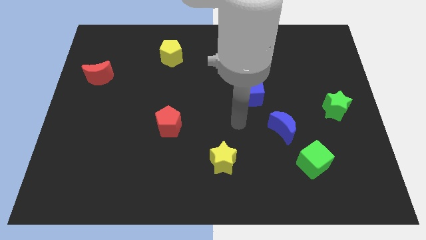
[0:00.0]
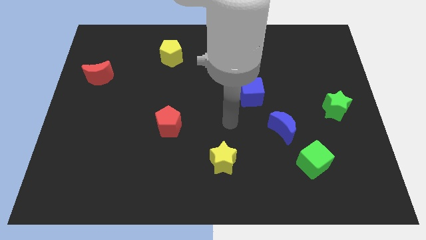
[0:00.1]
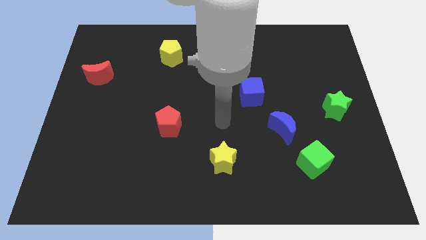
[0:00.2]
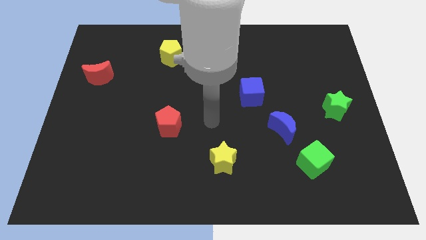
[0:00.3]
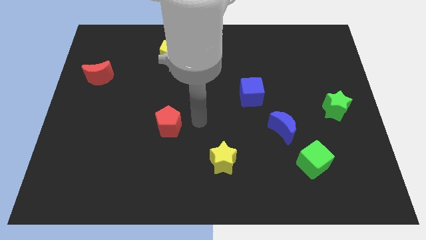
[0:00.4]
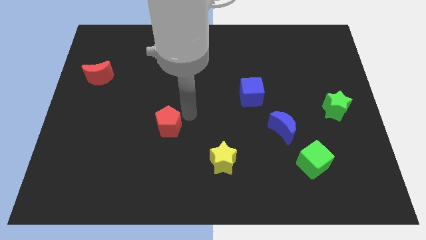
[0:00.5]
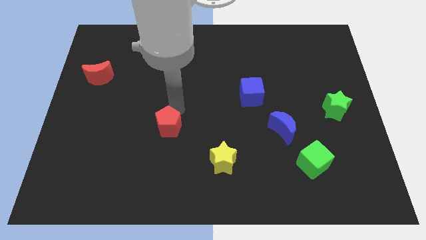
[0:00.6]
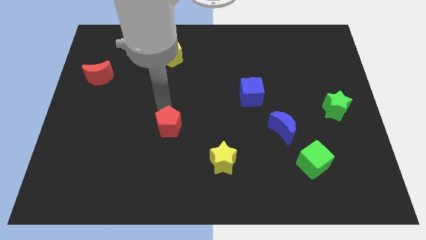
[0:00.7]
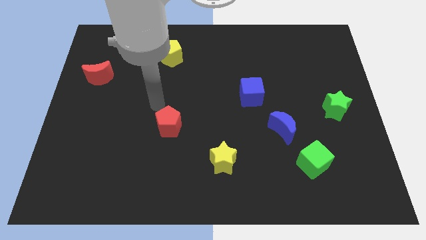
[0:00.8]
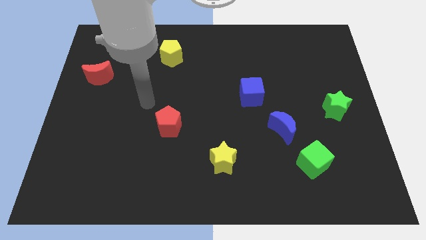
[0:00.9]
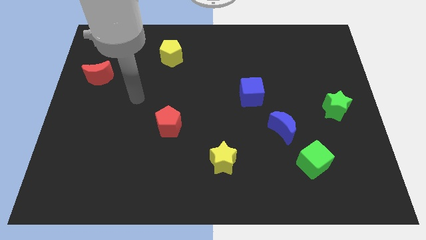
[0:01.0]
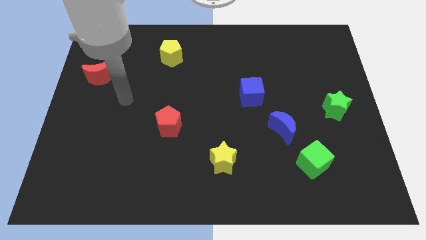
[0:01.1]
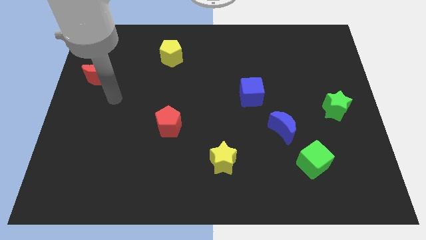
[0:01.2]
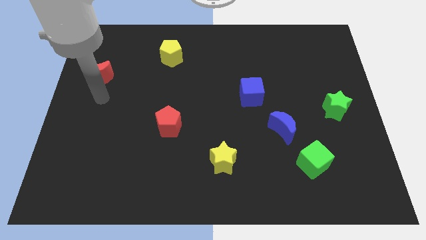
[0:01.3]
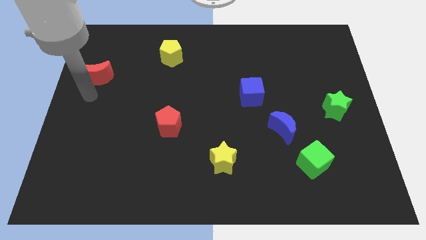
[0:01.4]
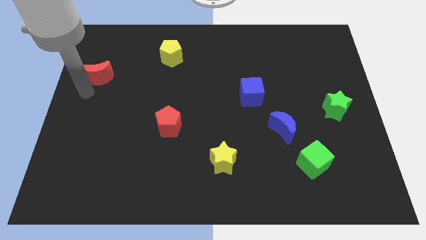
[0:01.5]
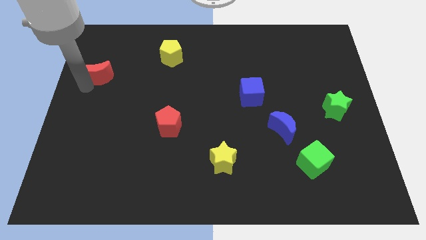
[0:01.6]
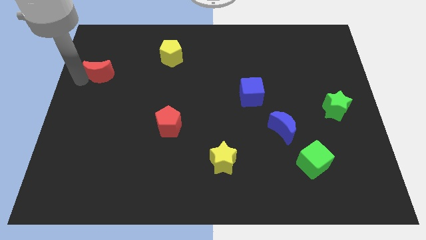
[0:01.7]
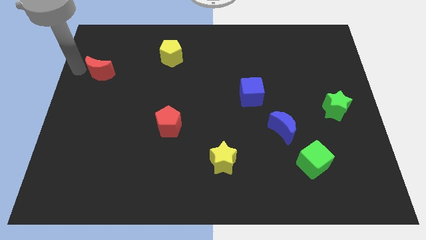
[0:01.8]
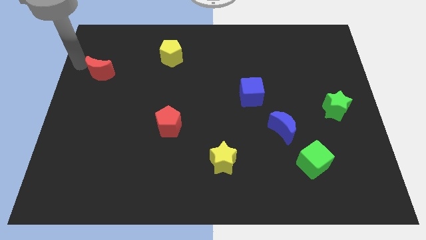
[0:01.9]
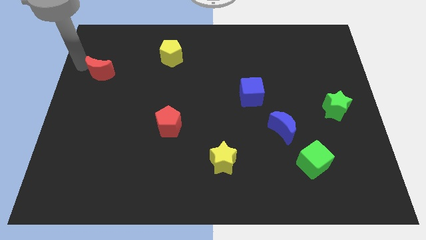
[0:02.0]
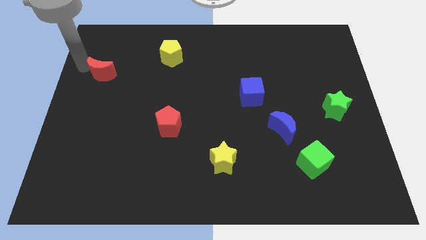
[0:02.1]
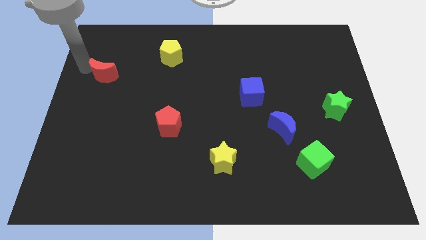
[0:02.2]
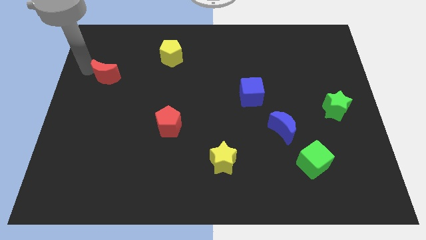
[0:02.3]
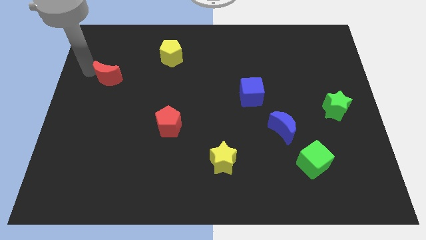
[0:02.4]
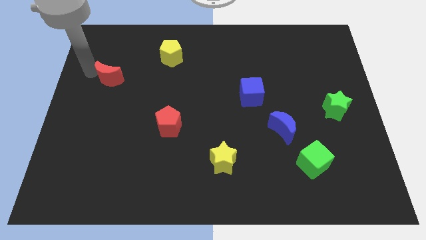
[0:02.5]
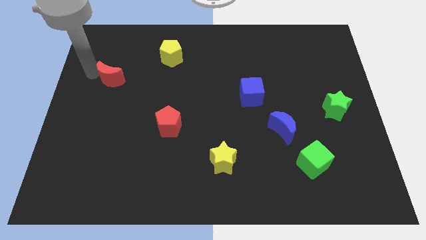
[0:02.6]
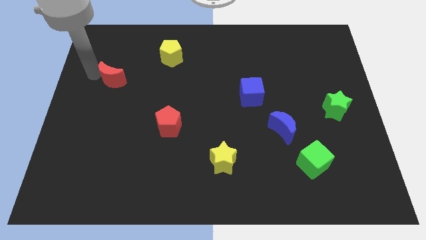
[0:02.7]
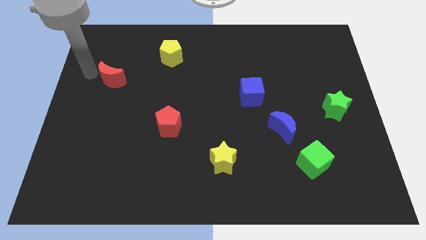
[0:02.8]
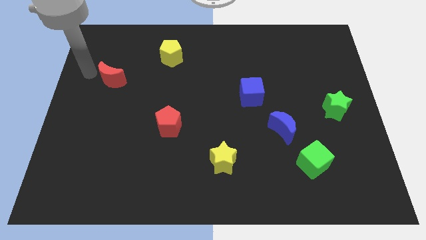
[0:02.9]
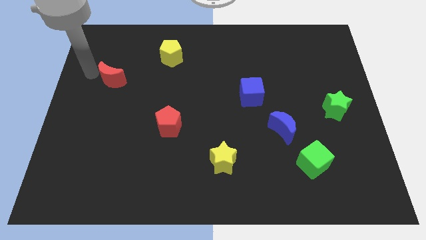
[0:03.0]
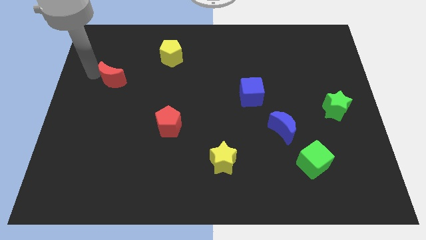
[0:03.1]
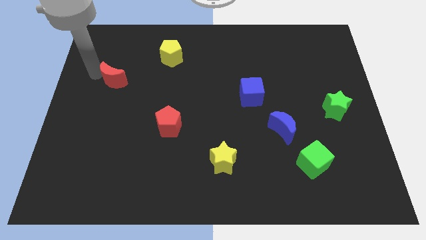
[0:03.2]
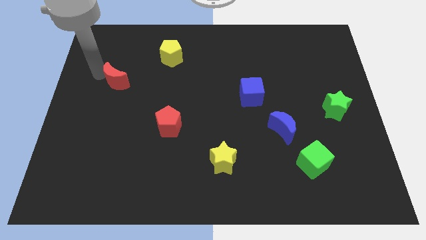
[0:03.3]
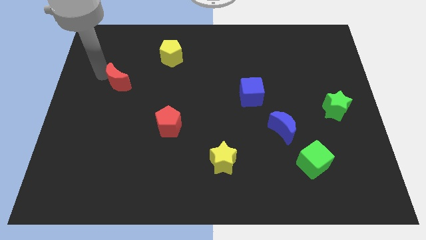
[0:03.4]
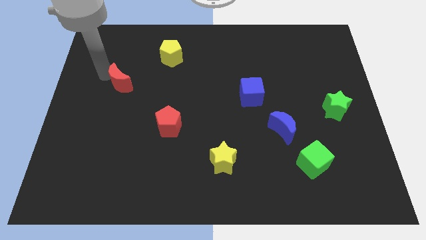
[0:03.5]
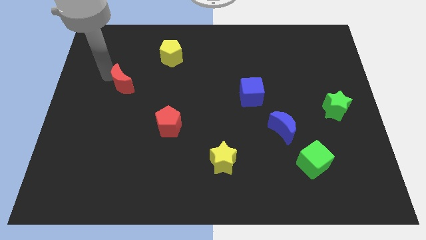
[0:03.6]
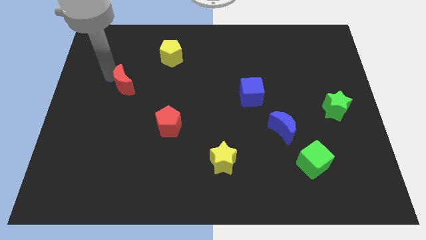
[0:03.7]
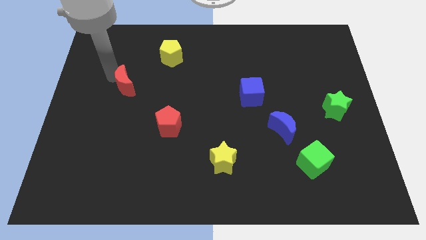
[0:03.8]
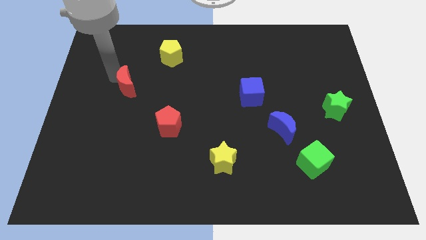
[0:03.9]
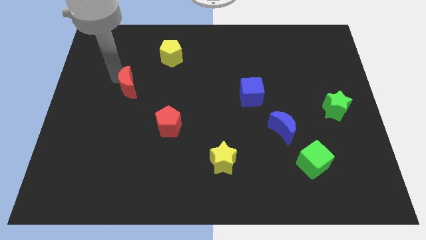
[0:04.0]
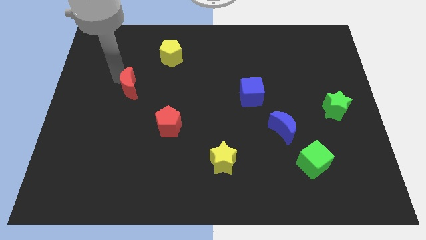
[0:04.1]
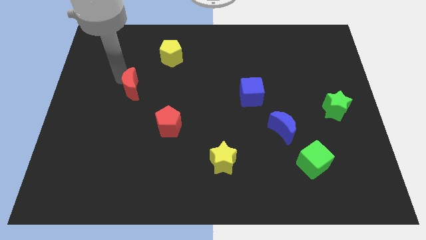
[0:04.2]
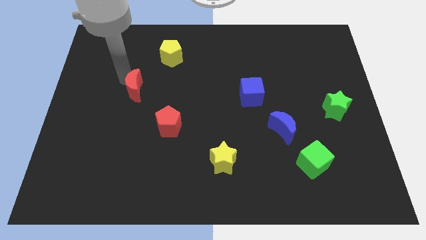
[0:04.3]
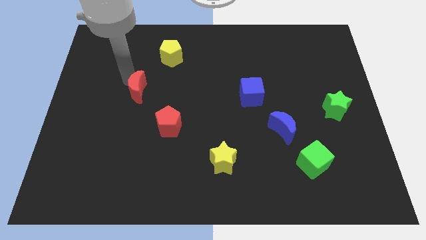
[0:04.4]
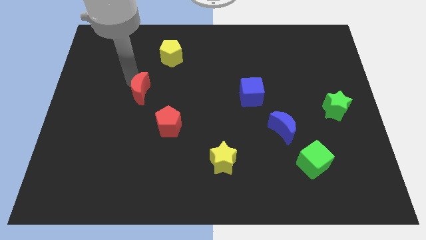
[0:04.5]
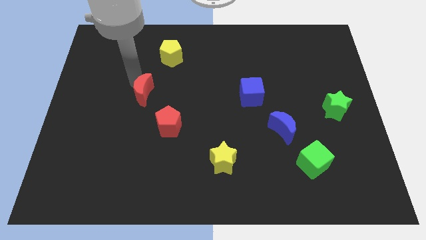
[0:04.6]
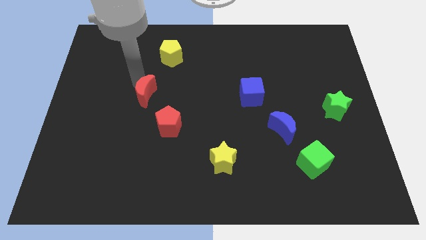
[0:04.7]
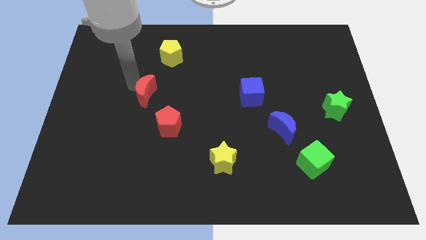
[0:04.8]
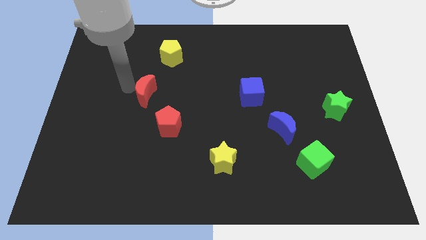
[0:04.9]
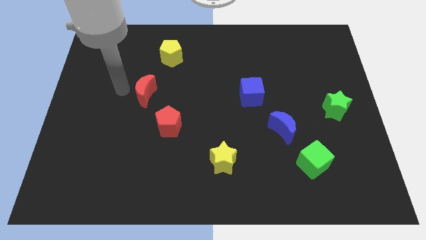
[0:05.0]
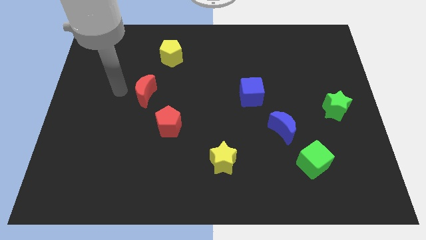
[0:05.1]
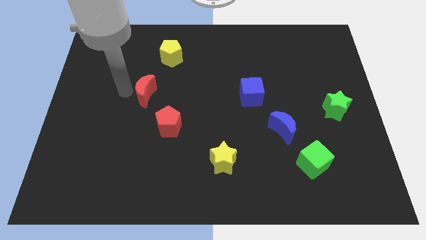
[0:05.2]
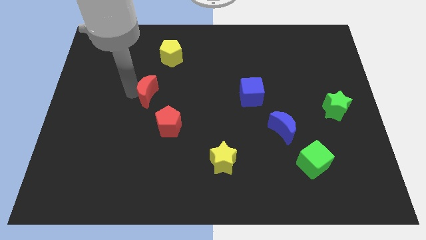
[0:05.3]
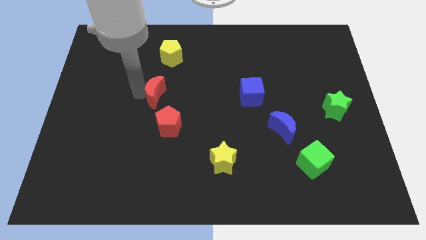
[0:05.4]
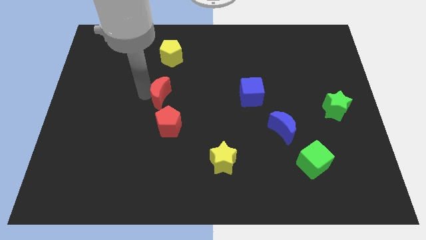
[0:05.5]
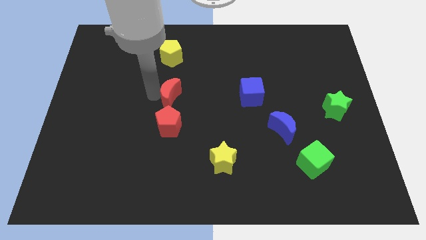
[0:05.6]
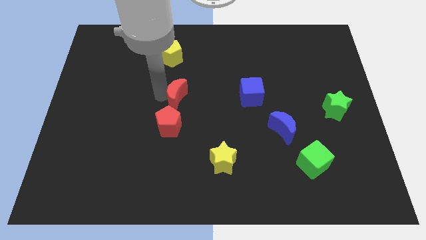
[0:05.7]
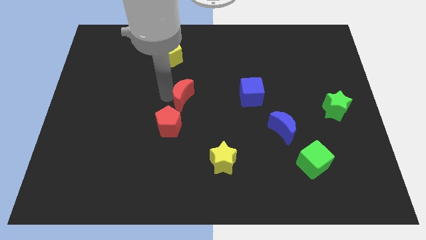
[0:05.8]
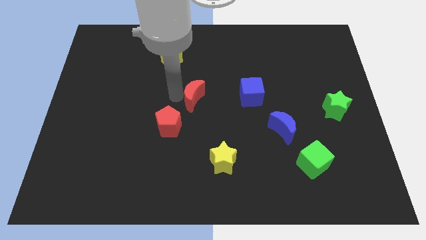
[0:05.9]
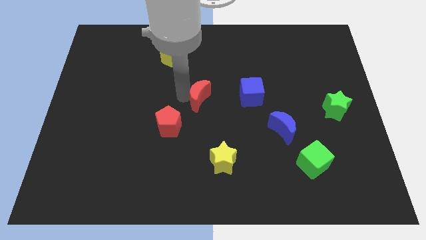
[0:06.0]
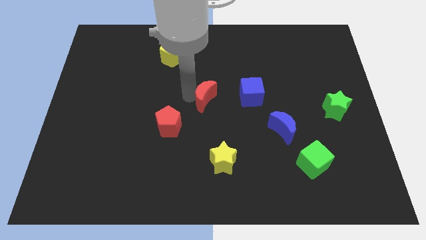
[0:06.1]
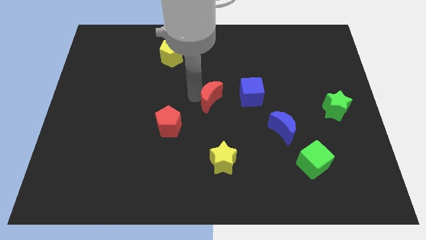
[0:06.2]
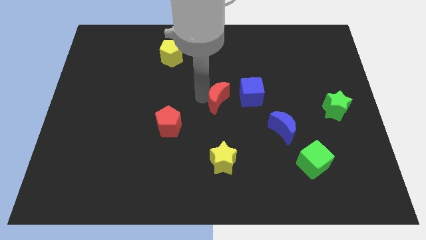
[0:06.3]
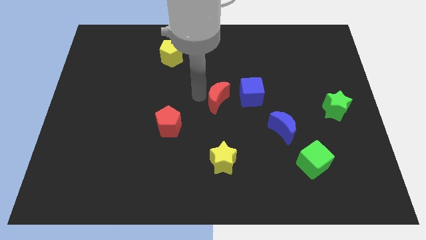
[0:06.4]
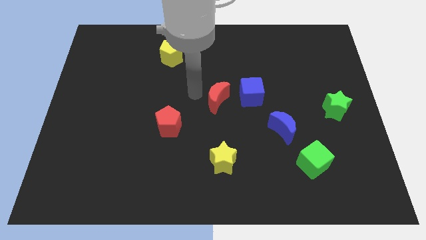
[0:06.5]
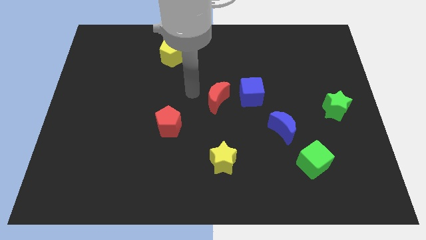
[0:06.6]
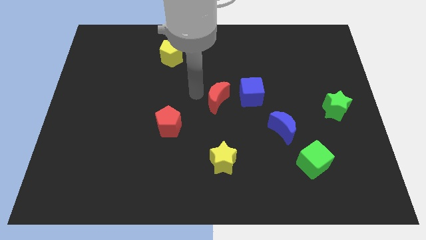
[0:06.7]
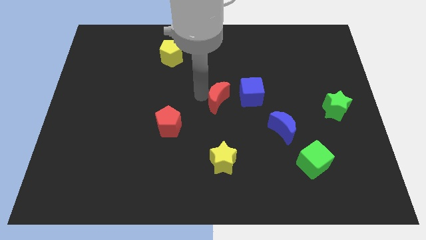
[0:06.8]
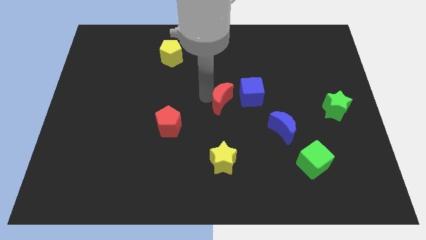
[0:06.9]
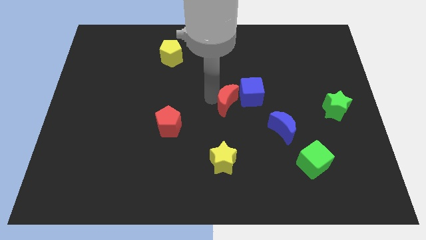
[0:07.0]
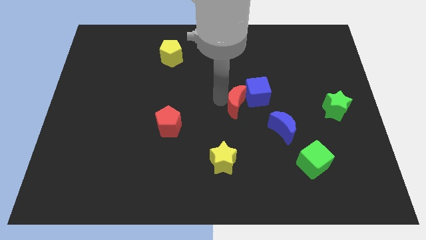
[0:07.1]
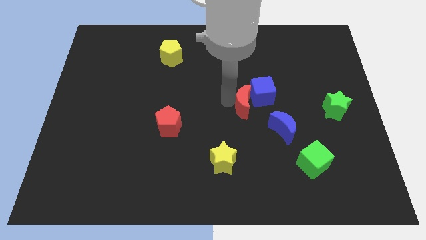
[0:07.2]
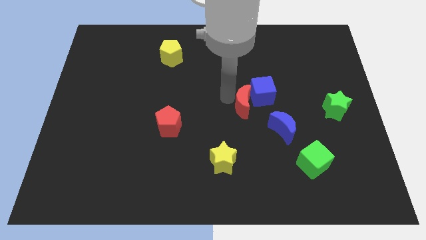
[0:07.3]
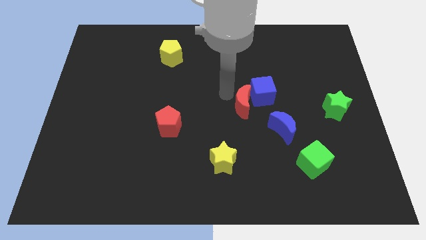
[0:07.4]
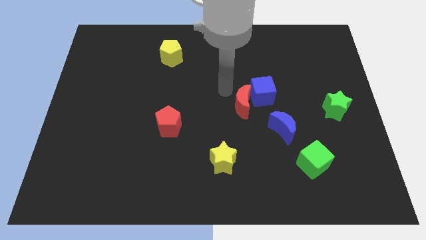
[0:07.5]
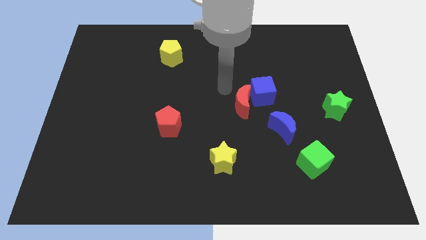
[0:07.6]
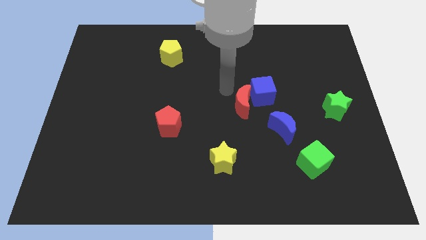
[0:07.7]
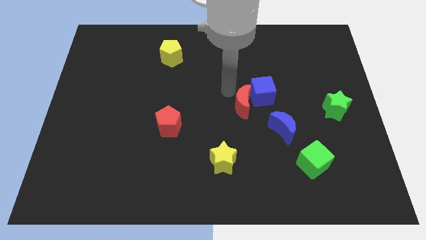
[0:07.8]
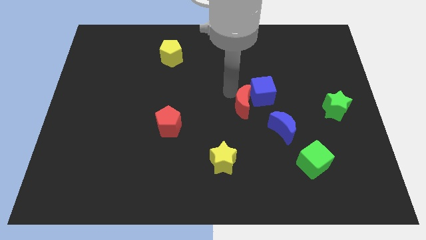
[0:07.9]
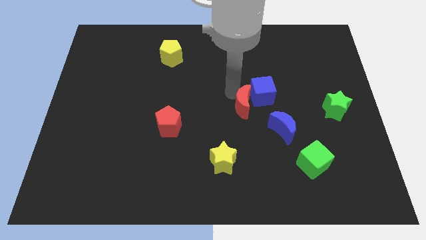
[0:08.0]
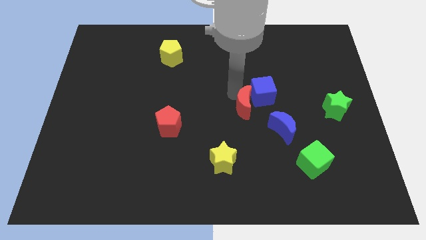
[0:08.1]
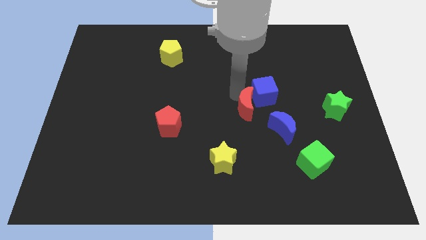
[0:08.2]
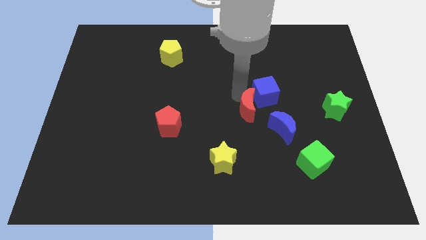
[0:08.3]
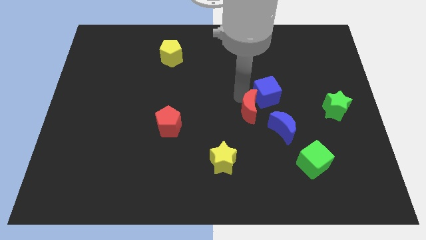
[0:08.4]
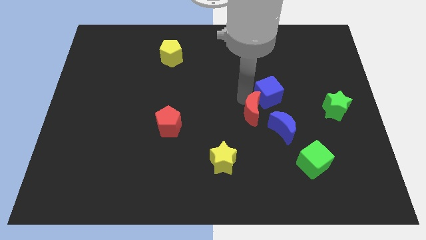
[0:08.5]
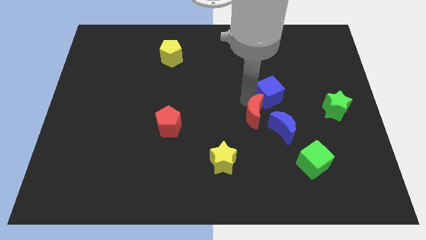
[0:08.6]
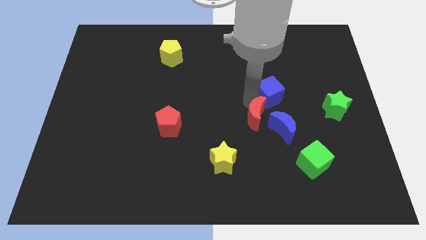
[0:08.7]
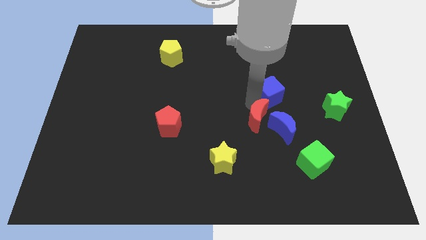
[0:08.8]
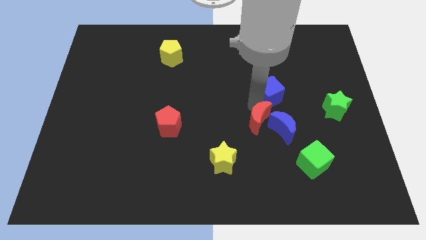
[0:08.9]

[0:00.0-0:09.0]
move the red moon towards the blue moon
